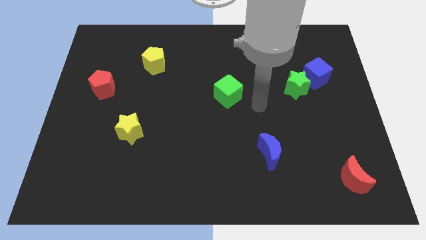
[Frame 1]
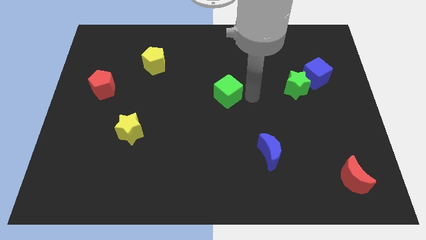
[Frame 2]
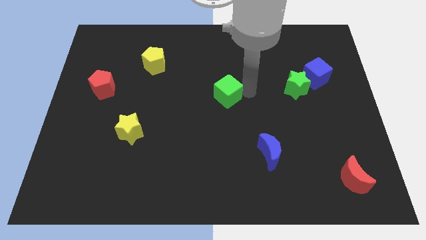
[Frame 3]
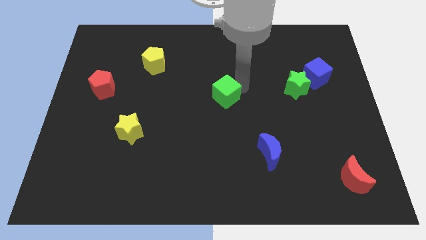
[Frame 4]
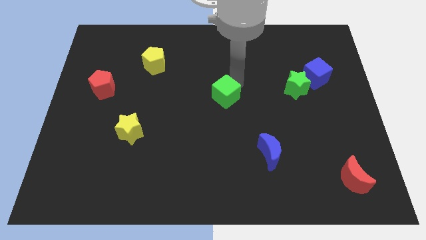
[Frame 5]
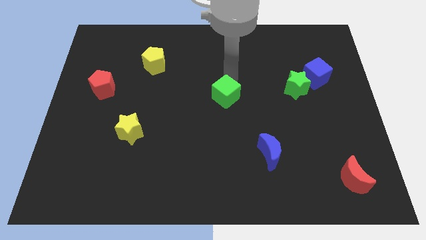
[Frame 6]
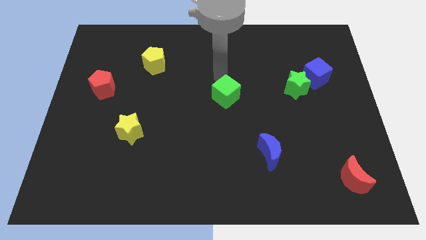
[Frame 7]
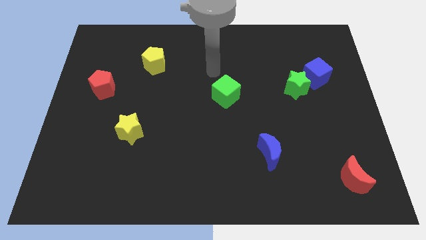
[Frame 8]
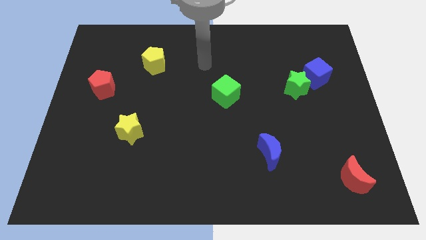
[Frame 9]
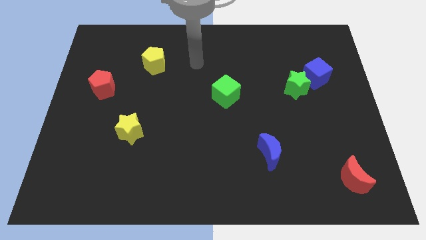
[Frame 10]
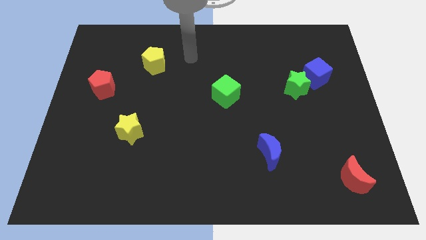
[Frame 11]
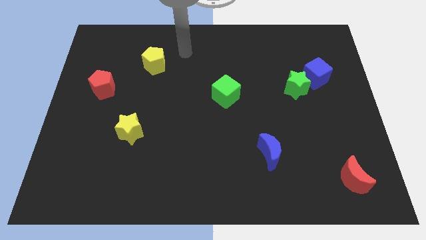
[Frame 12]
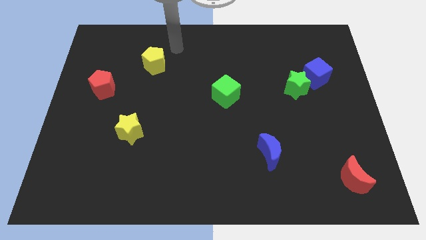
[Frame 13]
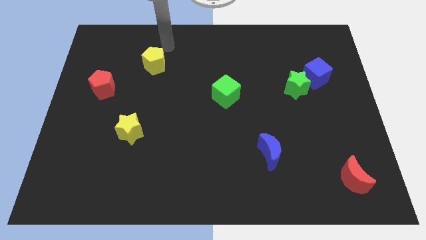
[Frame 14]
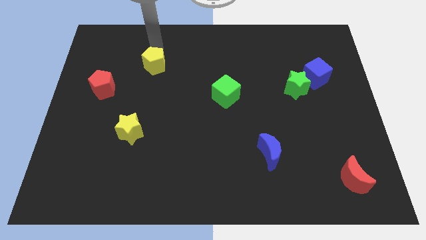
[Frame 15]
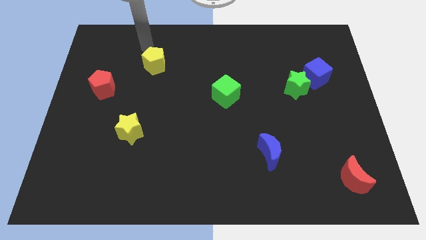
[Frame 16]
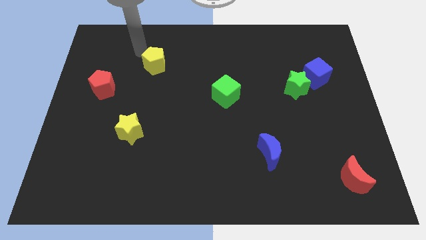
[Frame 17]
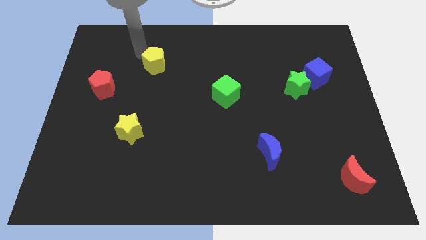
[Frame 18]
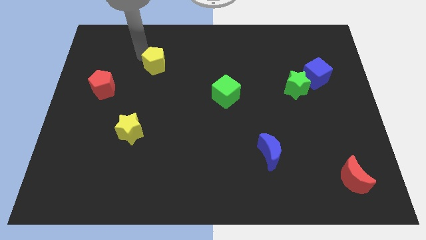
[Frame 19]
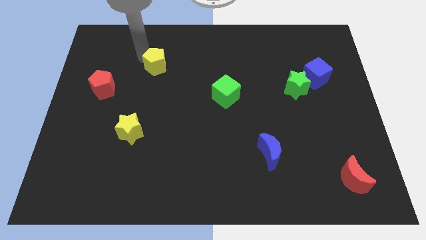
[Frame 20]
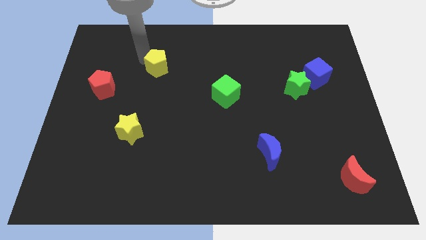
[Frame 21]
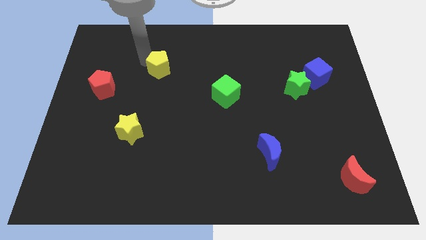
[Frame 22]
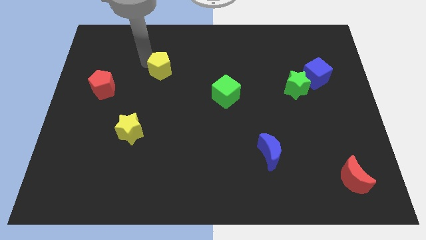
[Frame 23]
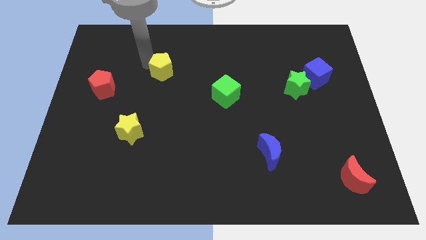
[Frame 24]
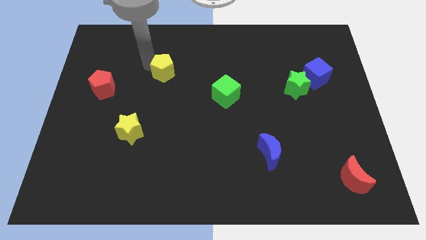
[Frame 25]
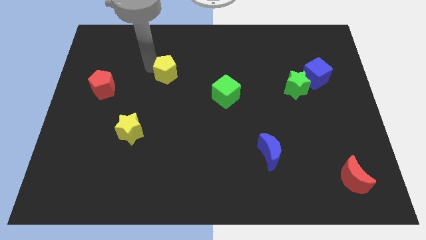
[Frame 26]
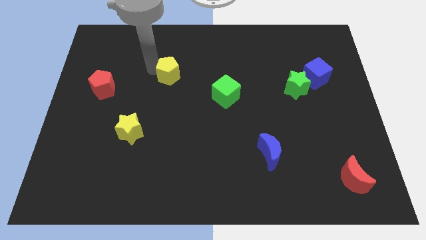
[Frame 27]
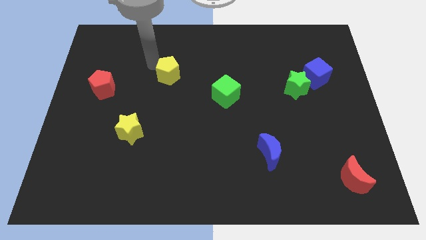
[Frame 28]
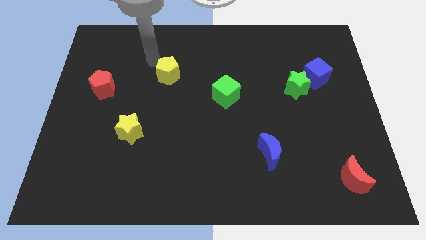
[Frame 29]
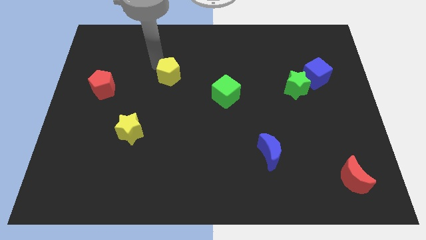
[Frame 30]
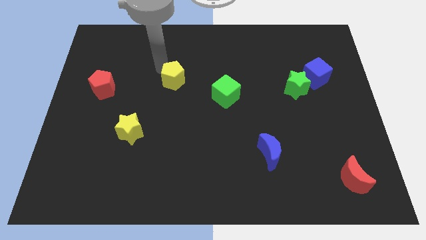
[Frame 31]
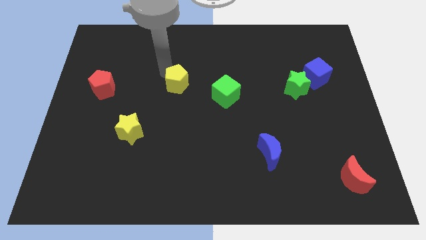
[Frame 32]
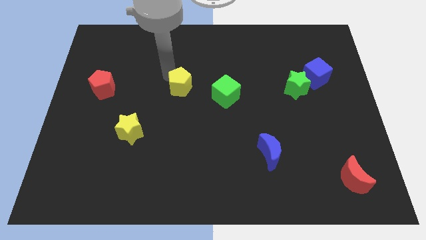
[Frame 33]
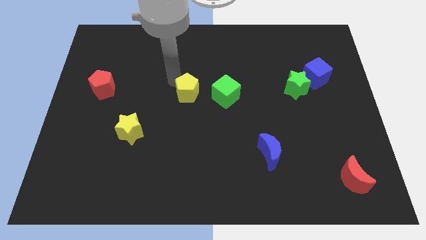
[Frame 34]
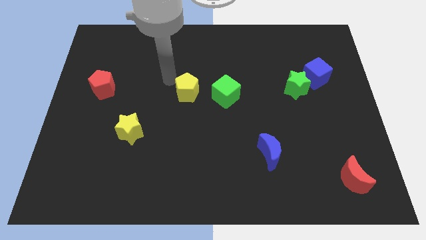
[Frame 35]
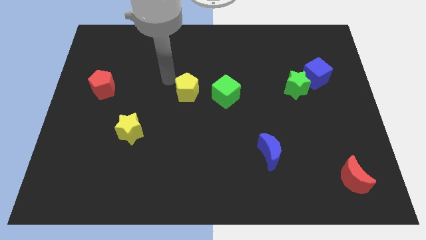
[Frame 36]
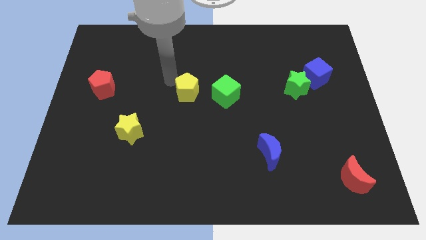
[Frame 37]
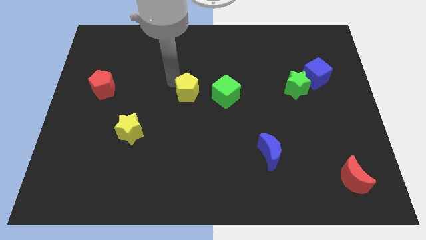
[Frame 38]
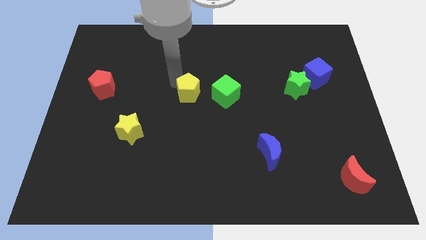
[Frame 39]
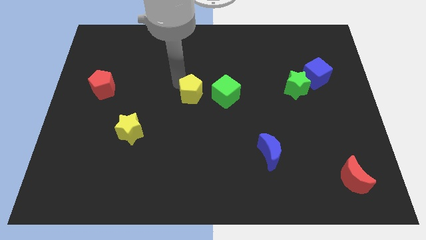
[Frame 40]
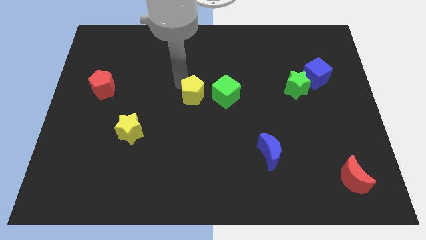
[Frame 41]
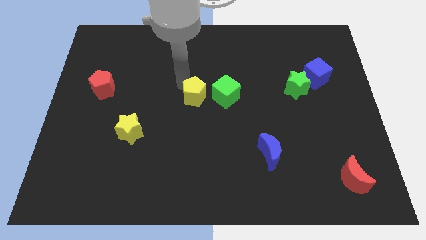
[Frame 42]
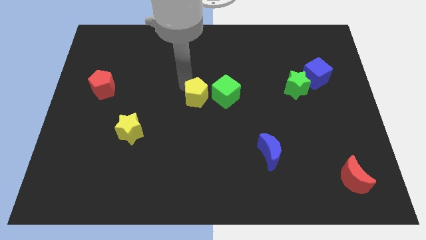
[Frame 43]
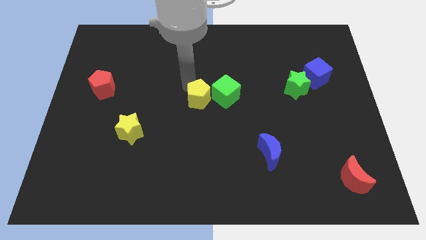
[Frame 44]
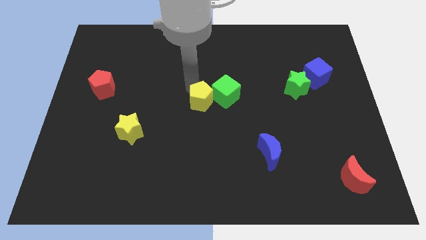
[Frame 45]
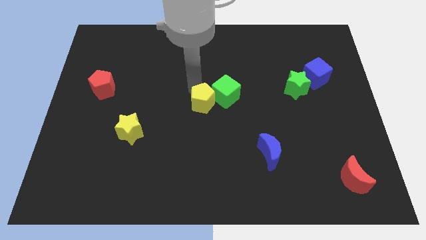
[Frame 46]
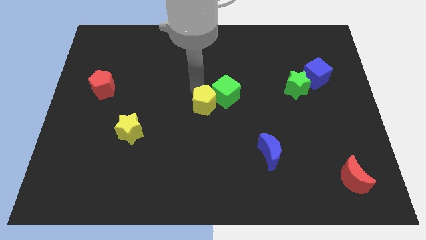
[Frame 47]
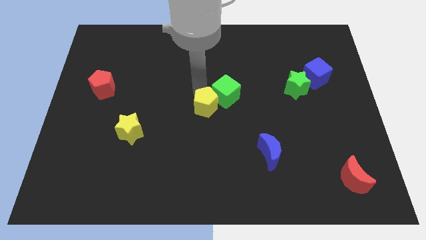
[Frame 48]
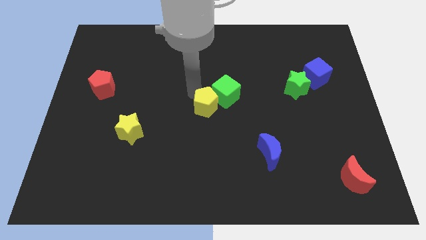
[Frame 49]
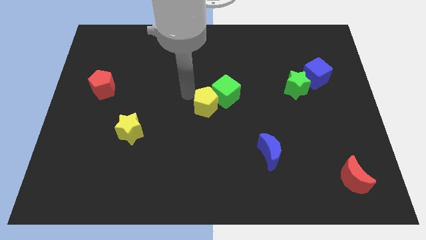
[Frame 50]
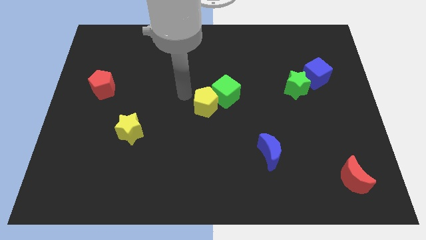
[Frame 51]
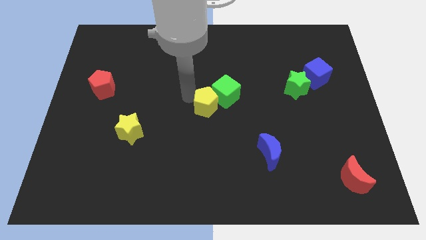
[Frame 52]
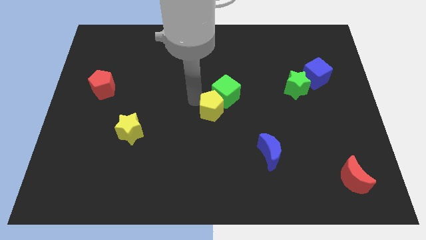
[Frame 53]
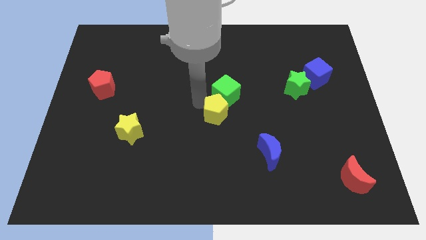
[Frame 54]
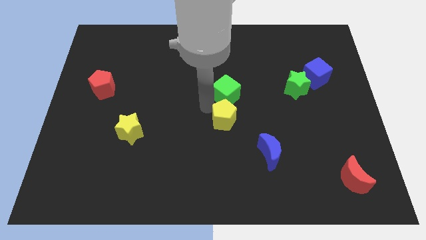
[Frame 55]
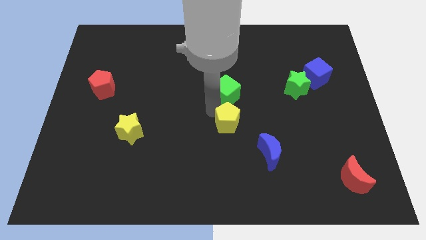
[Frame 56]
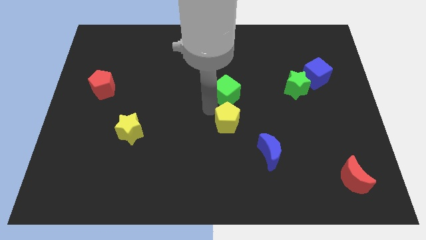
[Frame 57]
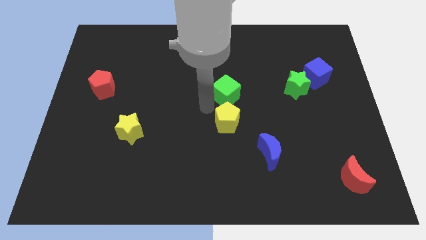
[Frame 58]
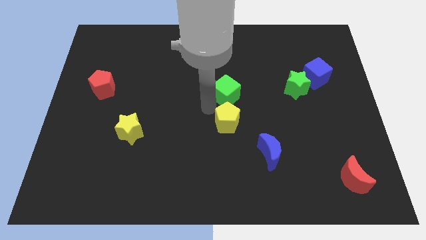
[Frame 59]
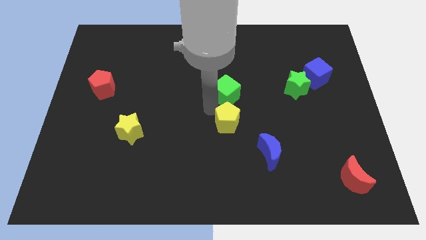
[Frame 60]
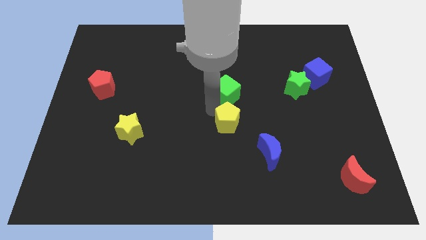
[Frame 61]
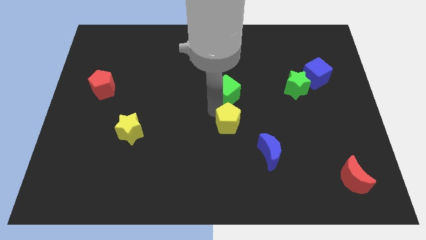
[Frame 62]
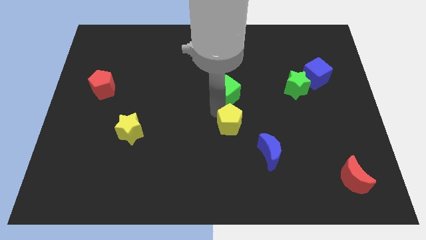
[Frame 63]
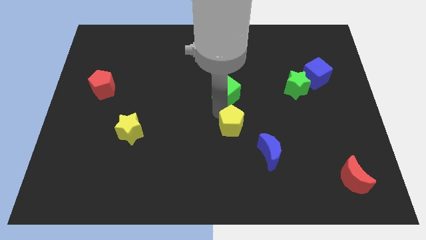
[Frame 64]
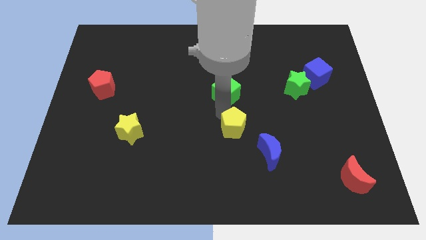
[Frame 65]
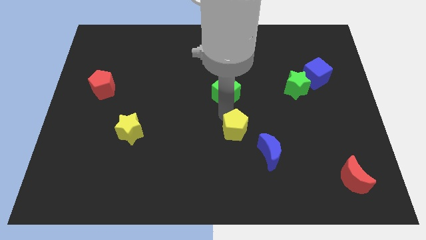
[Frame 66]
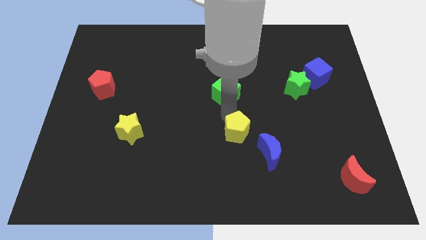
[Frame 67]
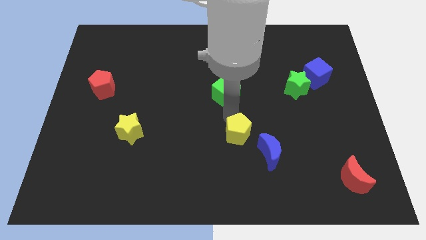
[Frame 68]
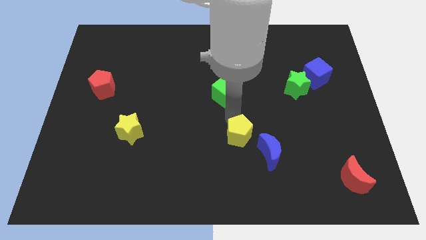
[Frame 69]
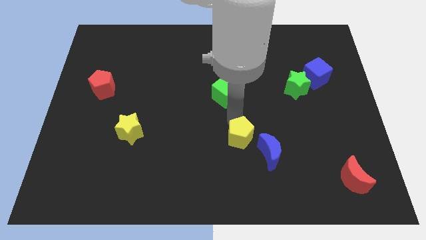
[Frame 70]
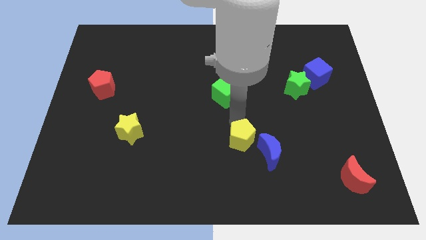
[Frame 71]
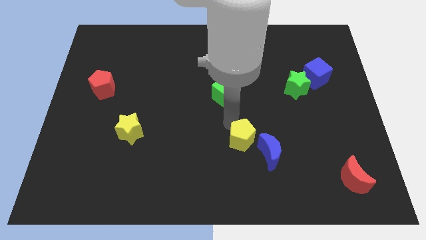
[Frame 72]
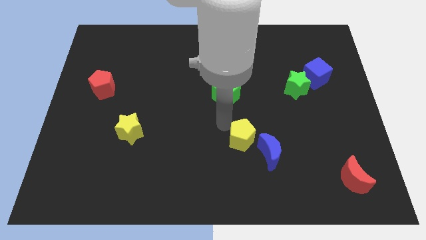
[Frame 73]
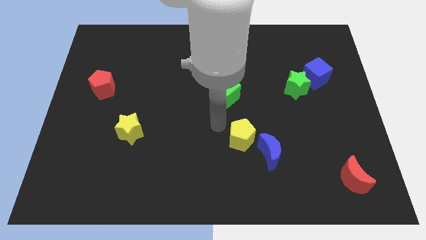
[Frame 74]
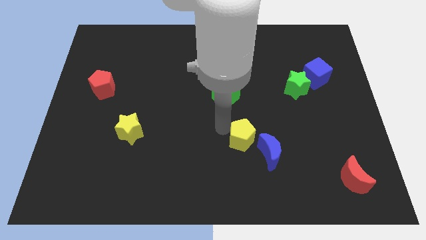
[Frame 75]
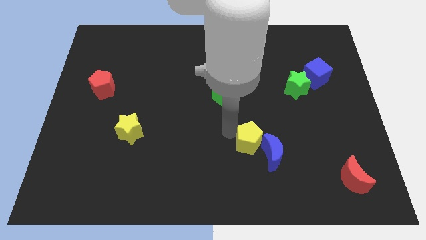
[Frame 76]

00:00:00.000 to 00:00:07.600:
move the yellow pentagon towards the blue moon
